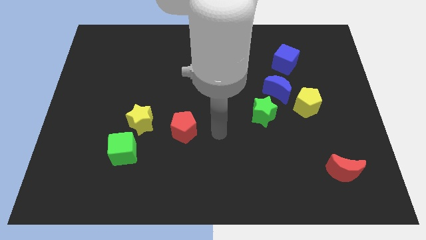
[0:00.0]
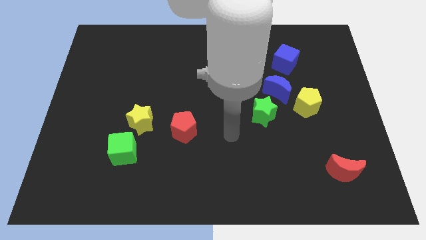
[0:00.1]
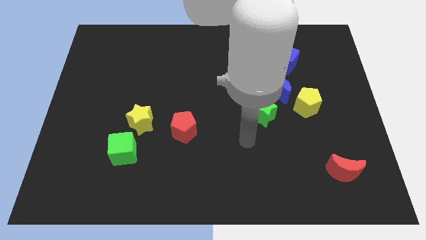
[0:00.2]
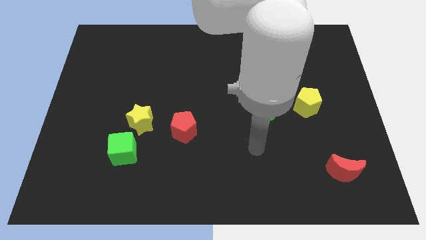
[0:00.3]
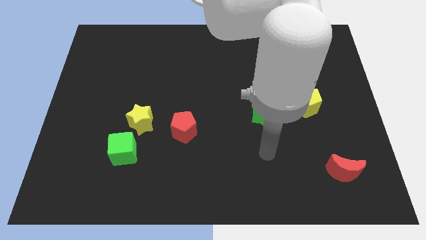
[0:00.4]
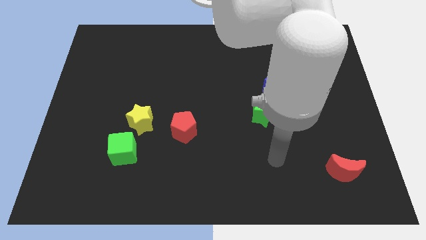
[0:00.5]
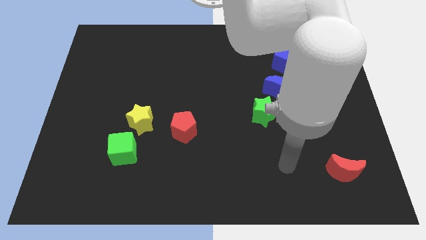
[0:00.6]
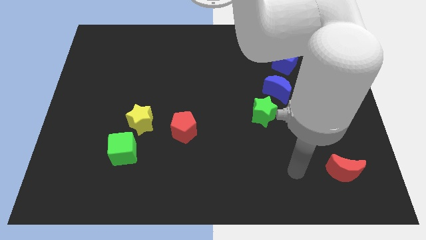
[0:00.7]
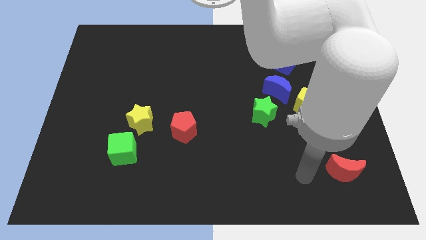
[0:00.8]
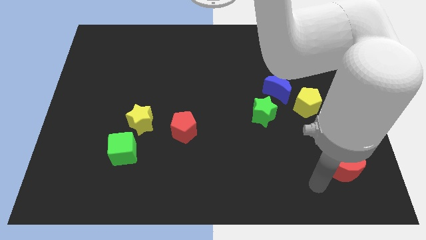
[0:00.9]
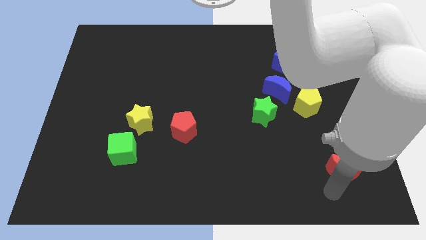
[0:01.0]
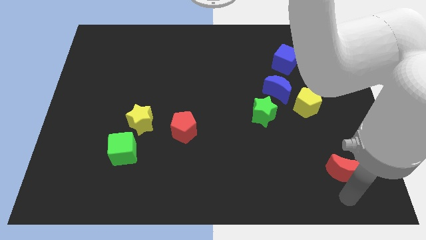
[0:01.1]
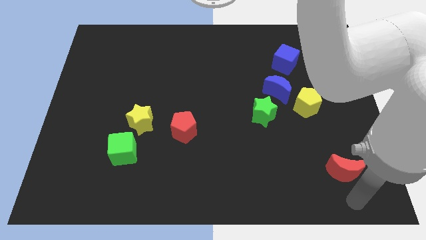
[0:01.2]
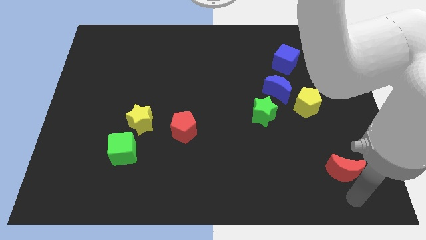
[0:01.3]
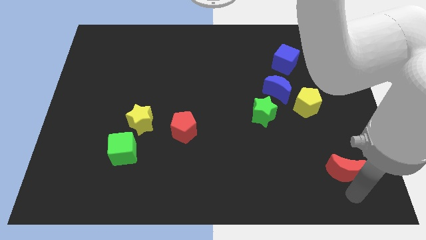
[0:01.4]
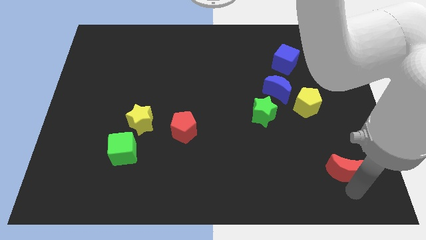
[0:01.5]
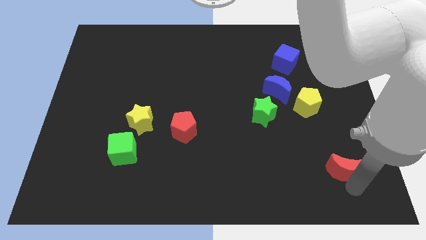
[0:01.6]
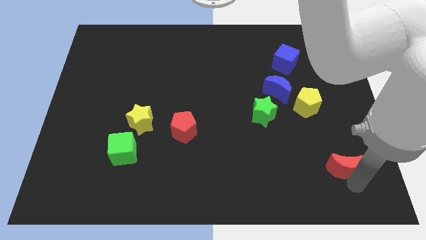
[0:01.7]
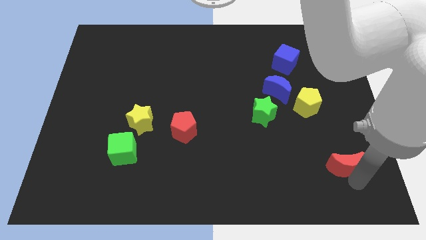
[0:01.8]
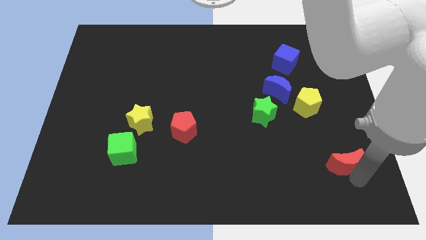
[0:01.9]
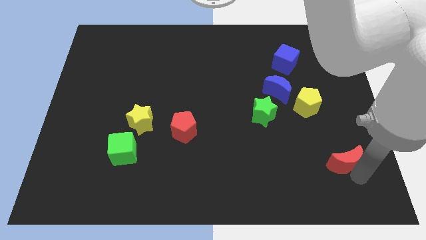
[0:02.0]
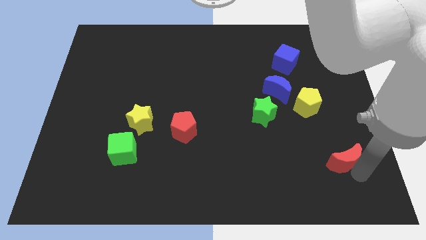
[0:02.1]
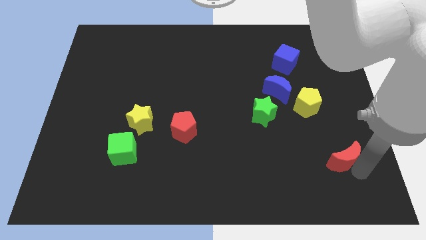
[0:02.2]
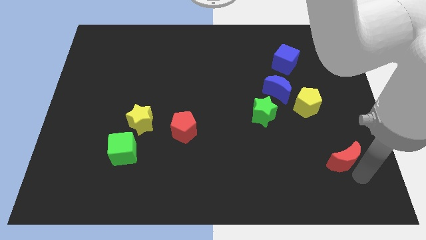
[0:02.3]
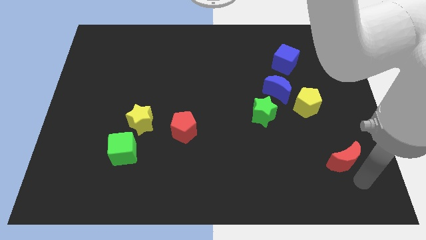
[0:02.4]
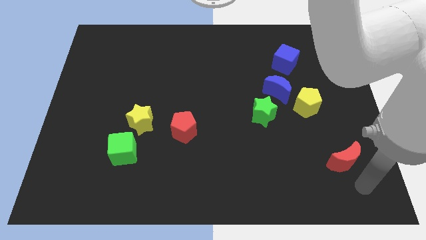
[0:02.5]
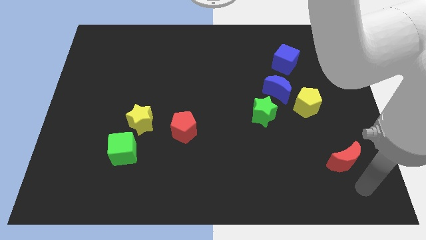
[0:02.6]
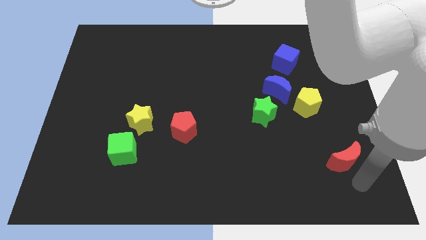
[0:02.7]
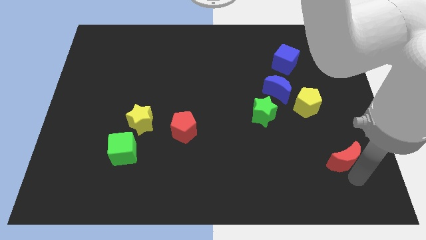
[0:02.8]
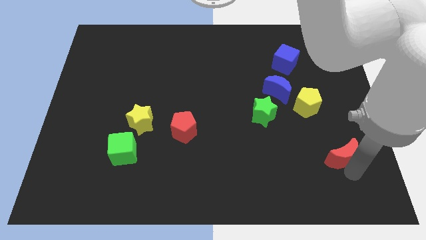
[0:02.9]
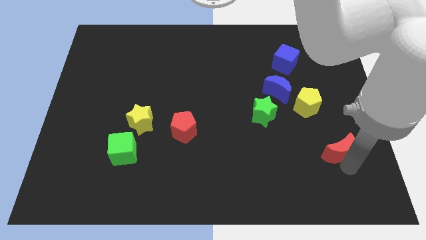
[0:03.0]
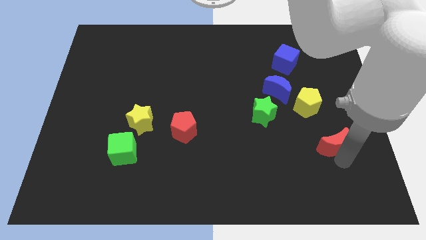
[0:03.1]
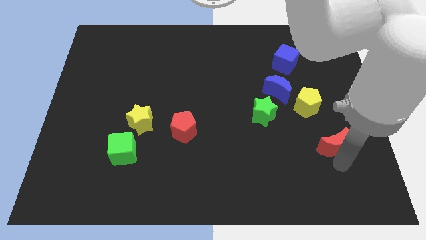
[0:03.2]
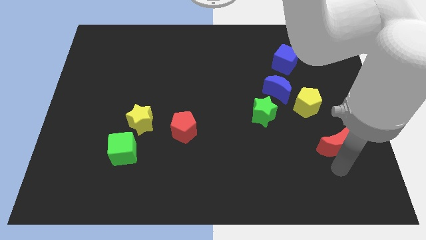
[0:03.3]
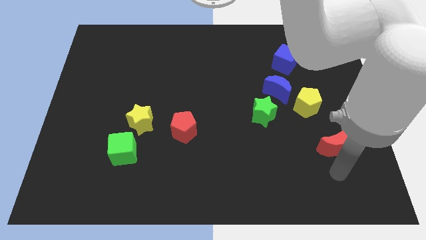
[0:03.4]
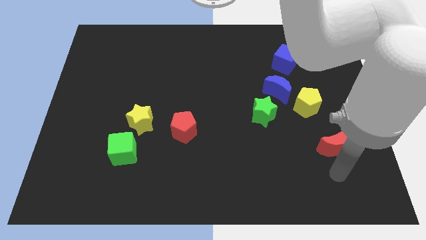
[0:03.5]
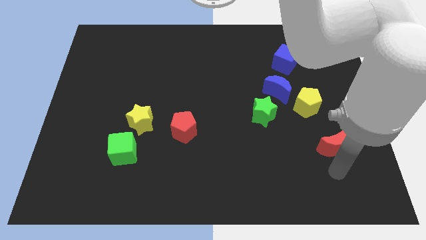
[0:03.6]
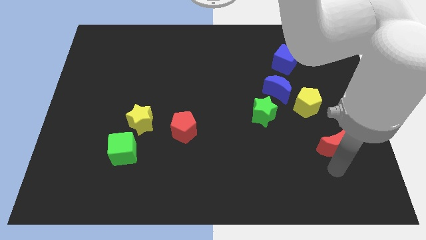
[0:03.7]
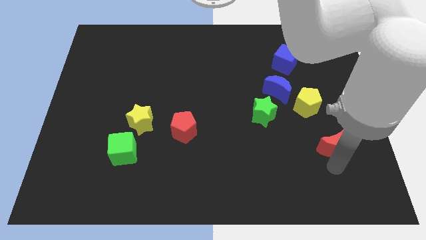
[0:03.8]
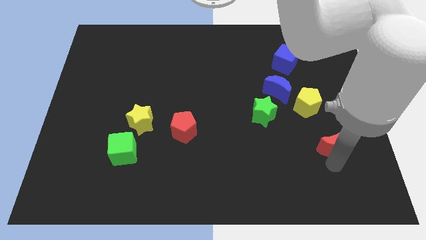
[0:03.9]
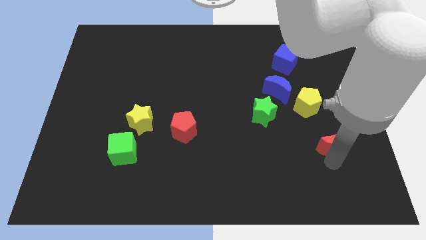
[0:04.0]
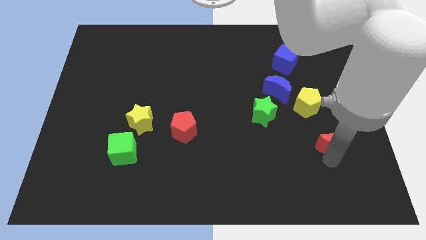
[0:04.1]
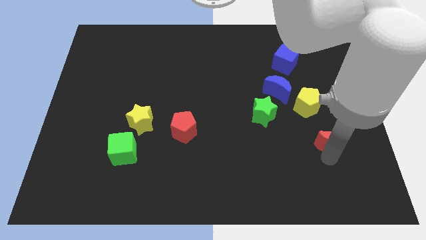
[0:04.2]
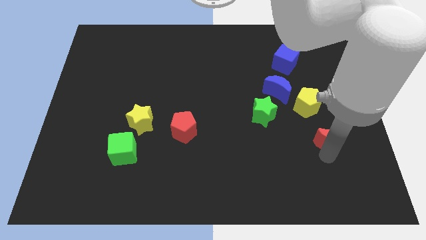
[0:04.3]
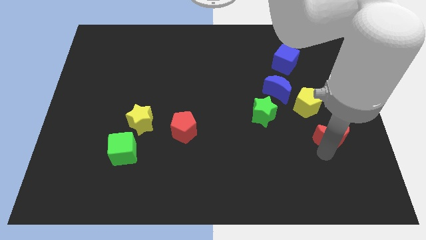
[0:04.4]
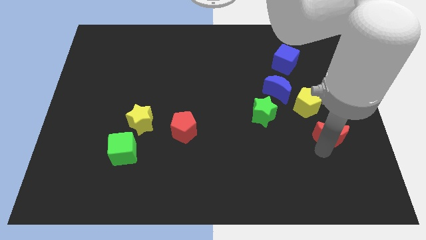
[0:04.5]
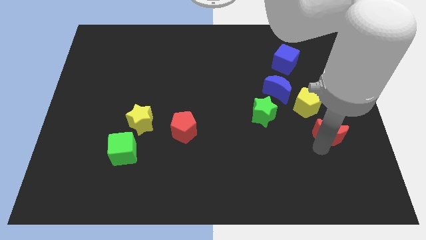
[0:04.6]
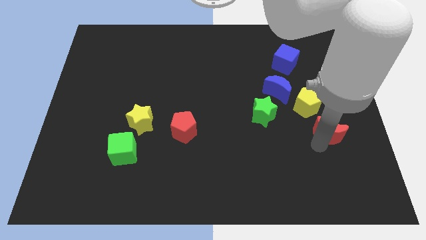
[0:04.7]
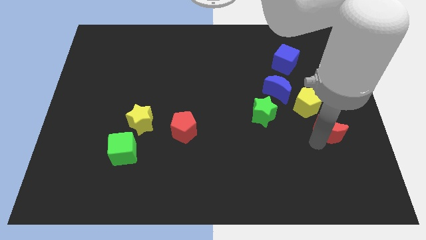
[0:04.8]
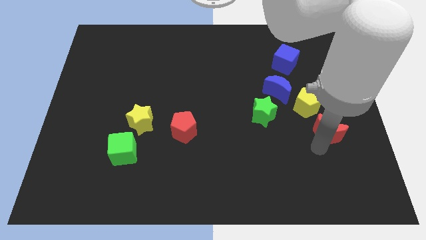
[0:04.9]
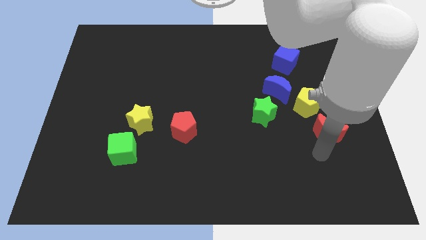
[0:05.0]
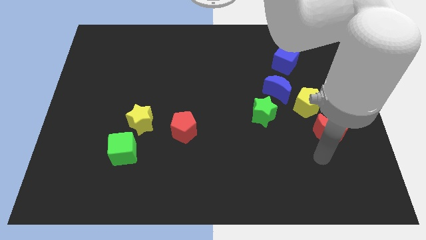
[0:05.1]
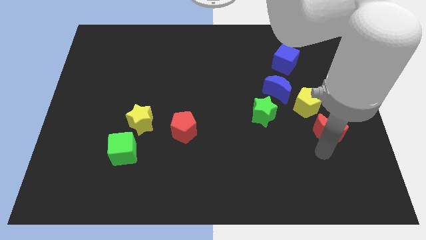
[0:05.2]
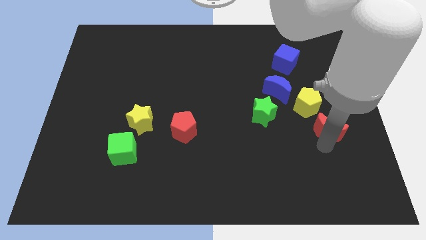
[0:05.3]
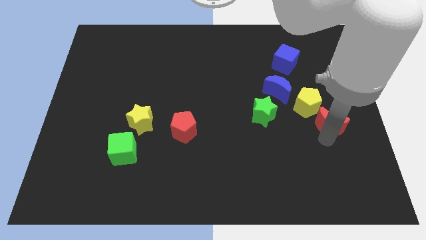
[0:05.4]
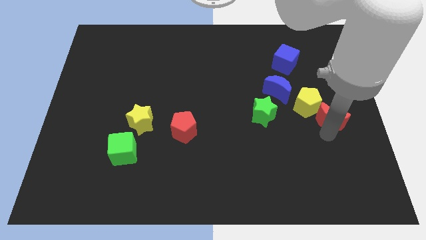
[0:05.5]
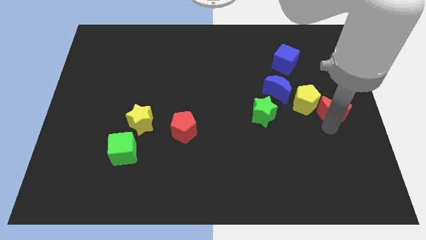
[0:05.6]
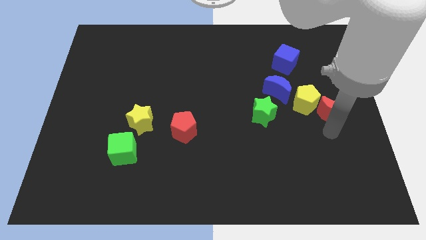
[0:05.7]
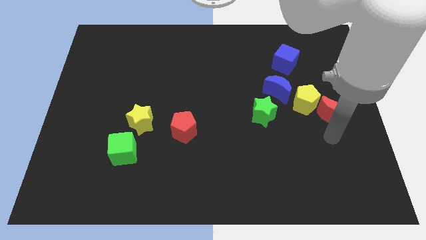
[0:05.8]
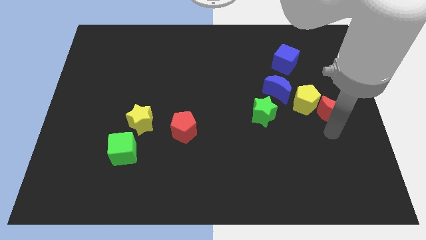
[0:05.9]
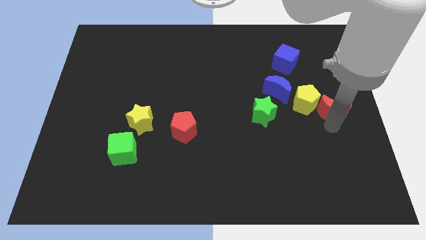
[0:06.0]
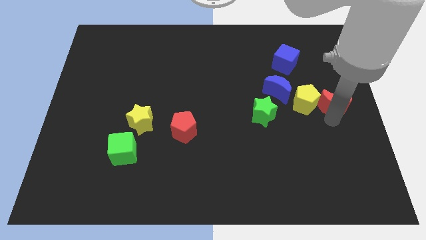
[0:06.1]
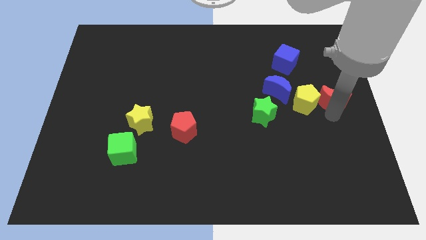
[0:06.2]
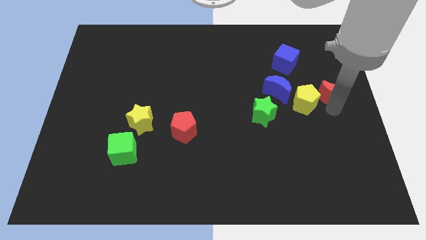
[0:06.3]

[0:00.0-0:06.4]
move the red moon upwards

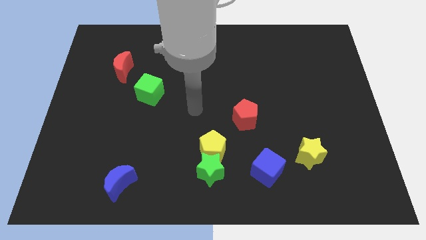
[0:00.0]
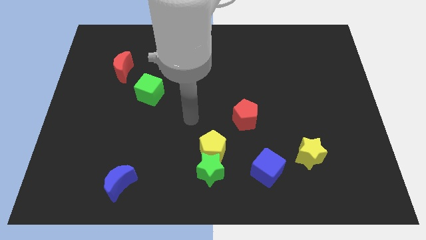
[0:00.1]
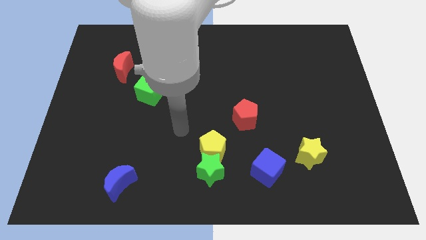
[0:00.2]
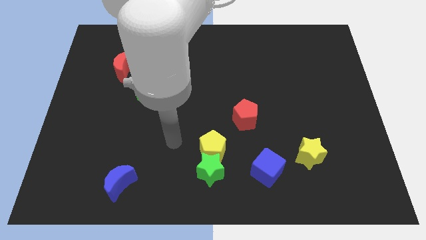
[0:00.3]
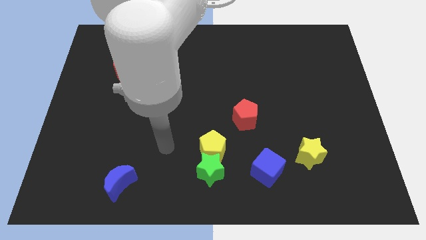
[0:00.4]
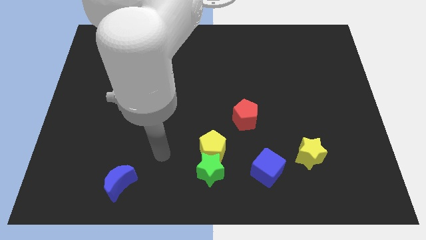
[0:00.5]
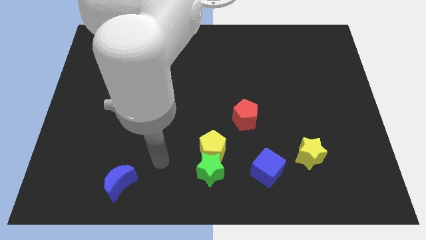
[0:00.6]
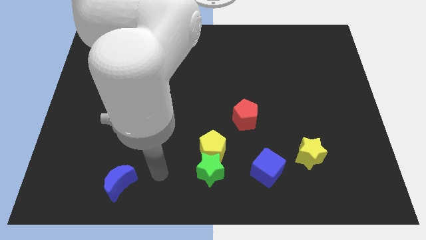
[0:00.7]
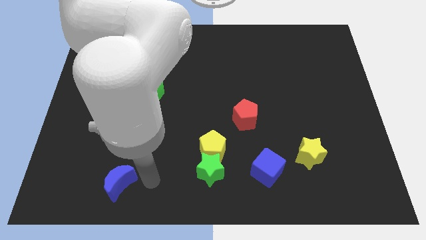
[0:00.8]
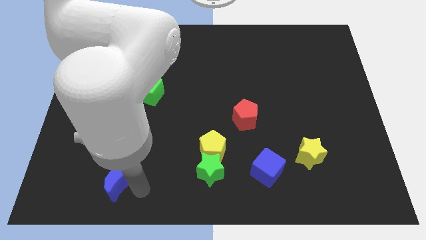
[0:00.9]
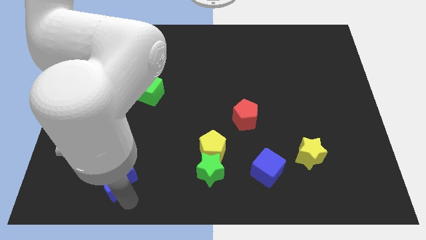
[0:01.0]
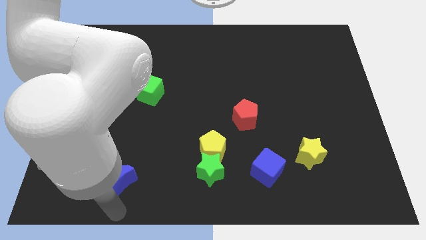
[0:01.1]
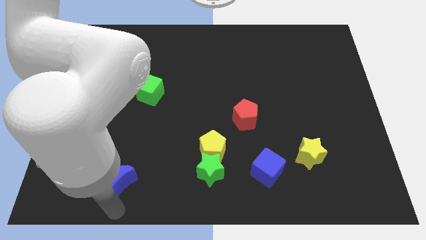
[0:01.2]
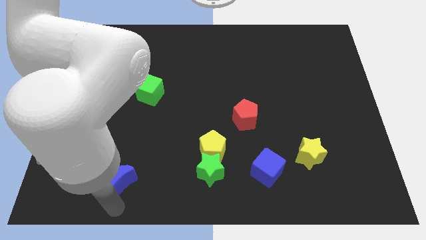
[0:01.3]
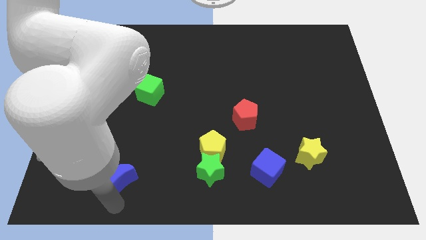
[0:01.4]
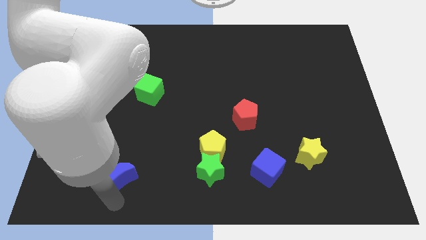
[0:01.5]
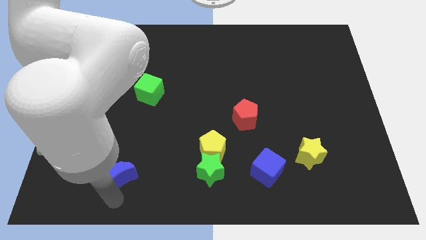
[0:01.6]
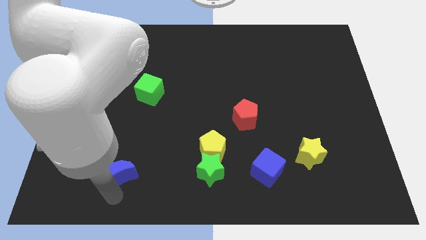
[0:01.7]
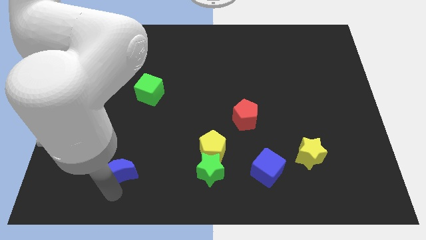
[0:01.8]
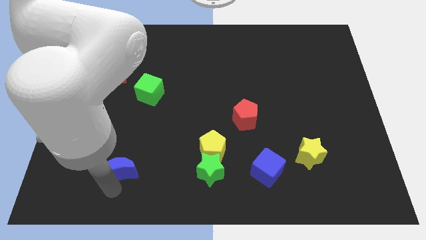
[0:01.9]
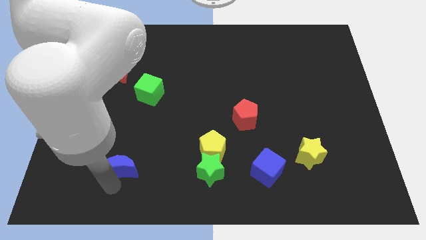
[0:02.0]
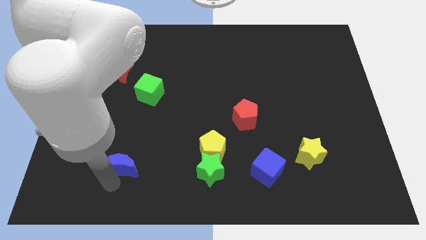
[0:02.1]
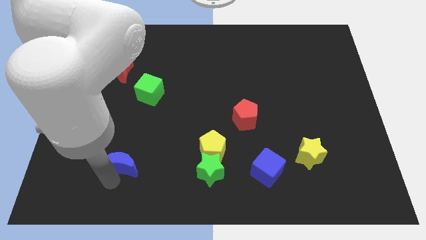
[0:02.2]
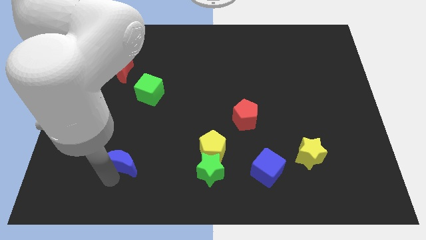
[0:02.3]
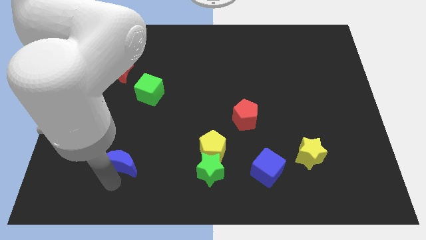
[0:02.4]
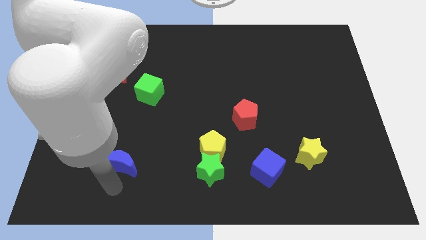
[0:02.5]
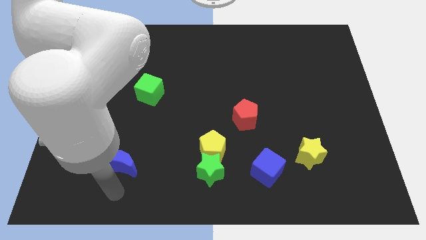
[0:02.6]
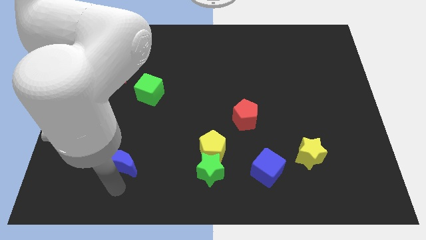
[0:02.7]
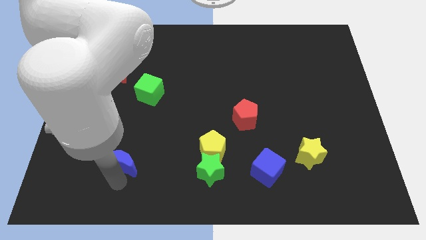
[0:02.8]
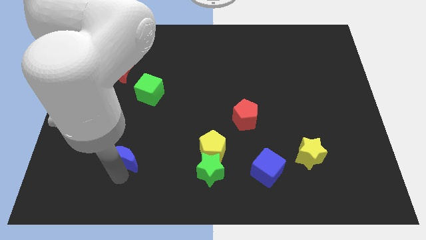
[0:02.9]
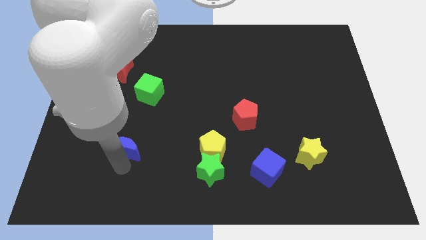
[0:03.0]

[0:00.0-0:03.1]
push the blue moon upwards slightly
